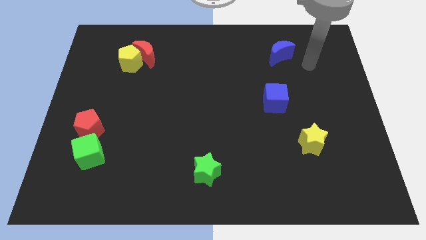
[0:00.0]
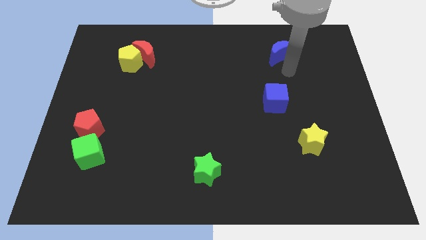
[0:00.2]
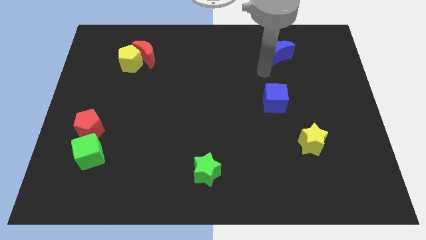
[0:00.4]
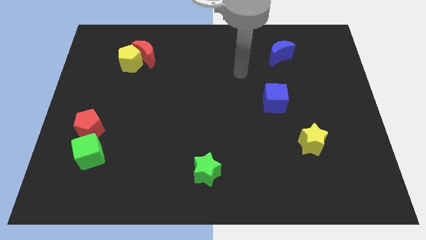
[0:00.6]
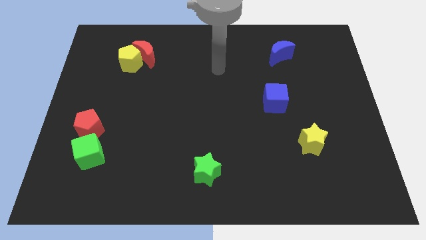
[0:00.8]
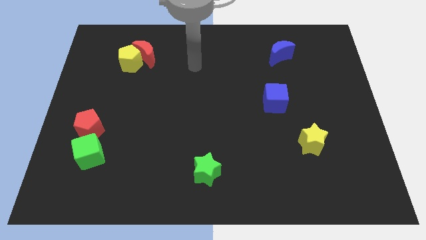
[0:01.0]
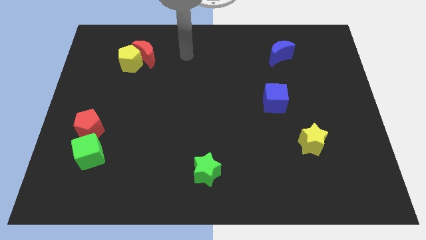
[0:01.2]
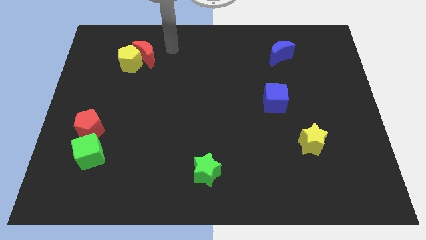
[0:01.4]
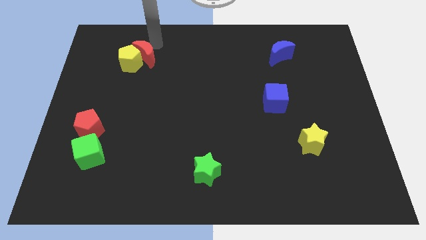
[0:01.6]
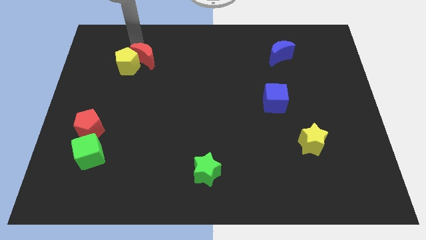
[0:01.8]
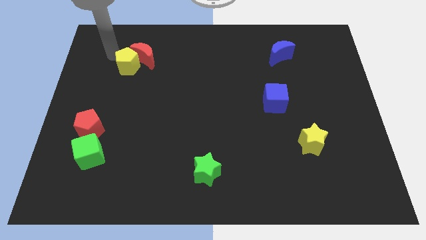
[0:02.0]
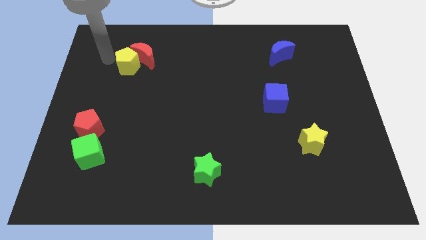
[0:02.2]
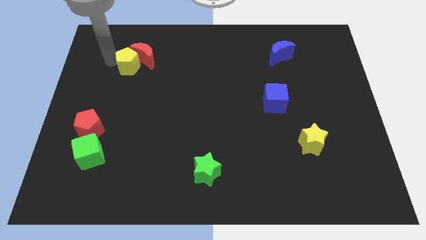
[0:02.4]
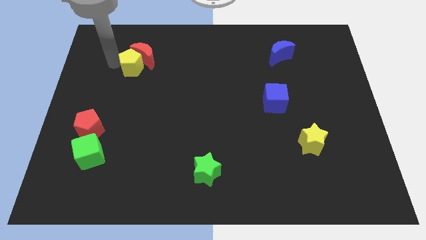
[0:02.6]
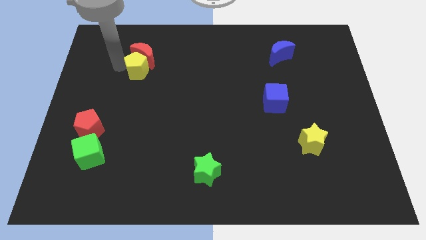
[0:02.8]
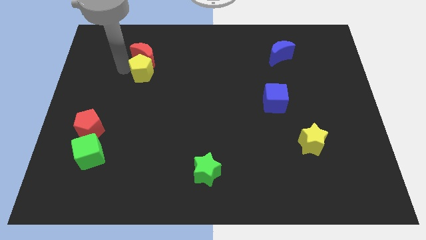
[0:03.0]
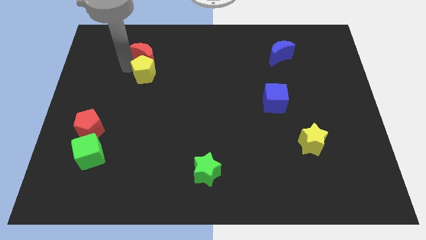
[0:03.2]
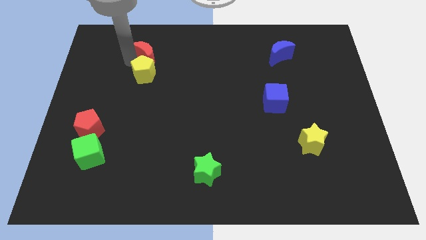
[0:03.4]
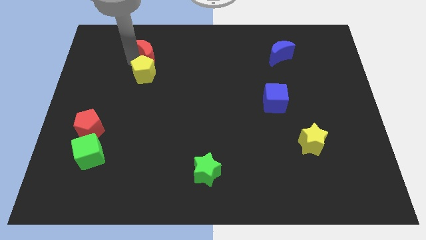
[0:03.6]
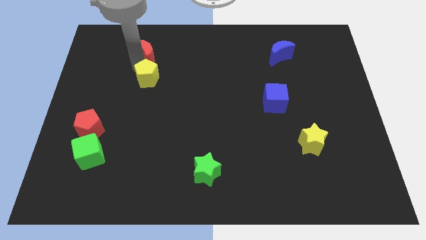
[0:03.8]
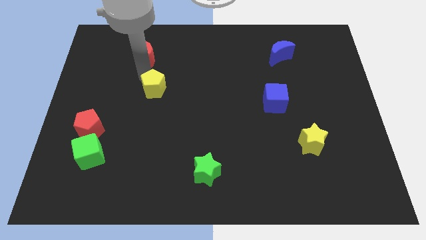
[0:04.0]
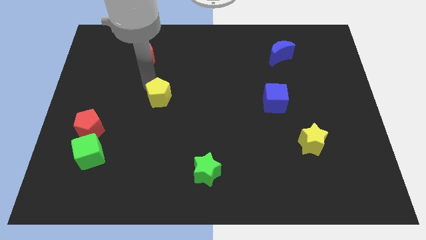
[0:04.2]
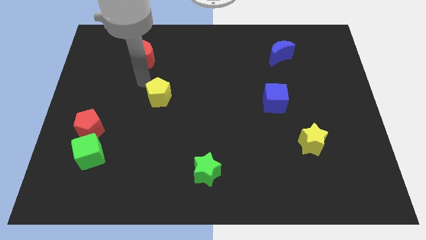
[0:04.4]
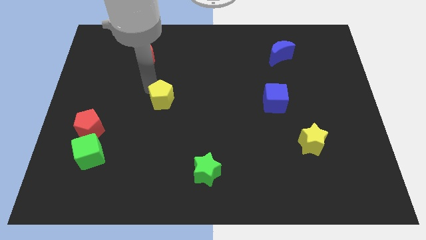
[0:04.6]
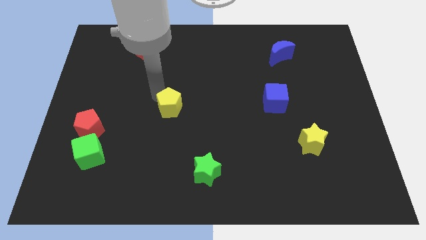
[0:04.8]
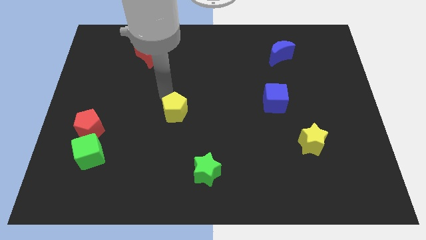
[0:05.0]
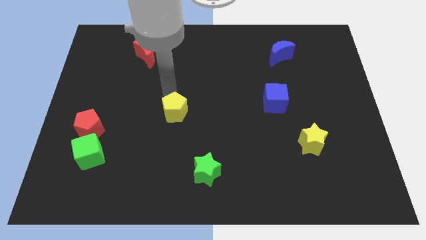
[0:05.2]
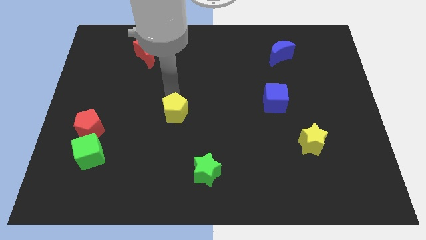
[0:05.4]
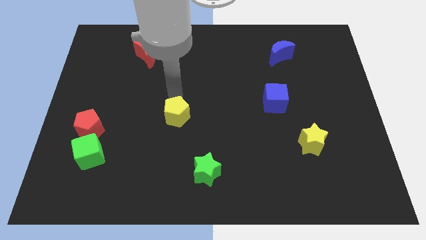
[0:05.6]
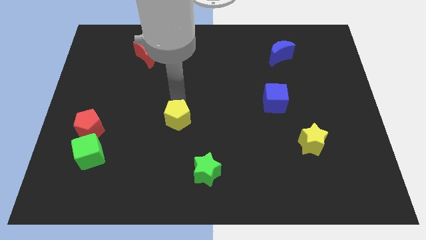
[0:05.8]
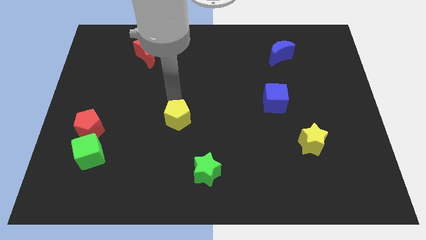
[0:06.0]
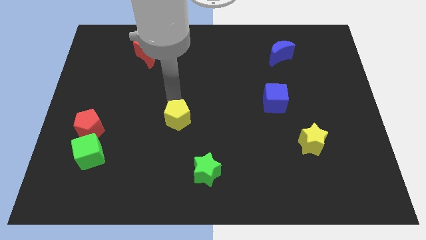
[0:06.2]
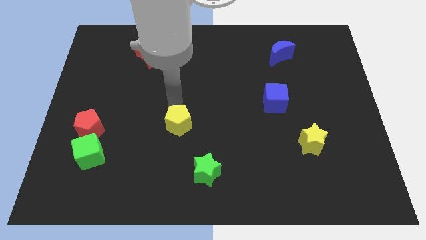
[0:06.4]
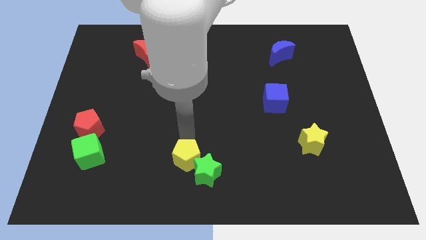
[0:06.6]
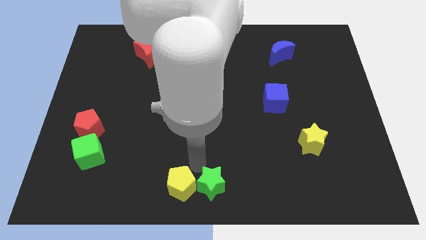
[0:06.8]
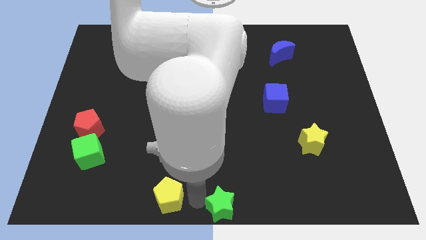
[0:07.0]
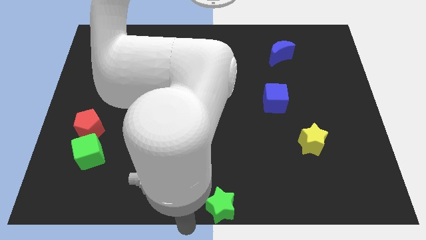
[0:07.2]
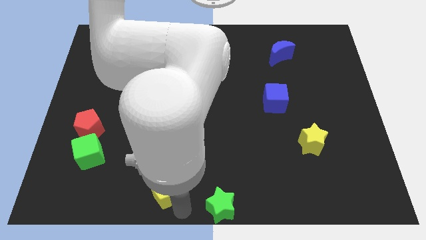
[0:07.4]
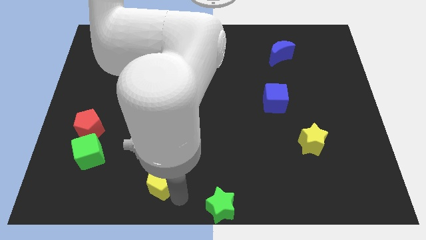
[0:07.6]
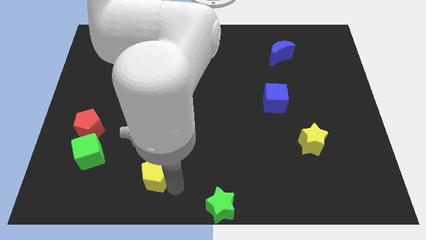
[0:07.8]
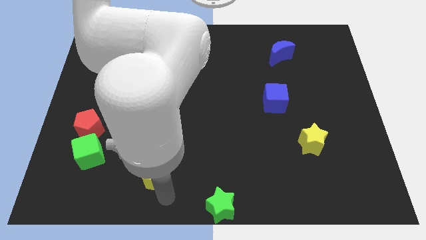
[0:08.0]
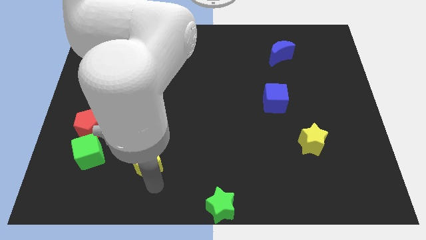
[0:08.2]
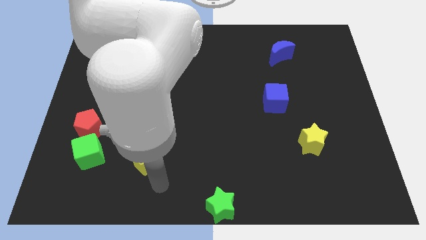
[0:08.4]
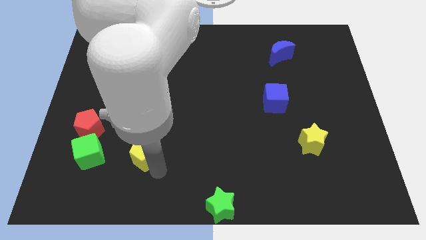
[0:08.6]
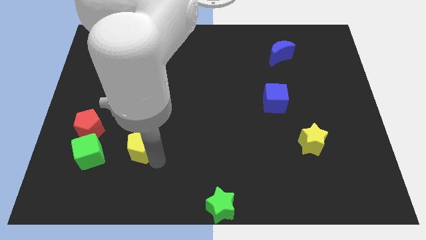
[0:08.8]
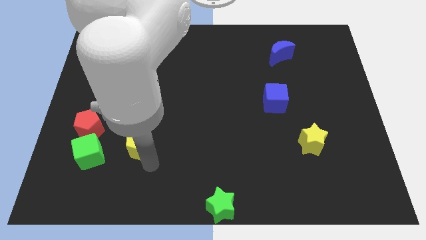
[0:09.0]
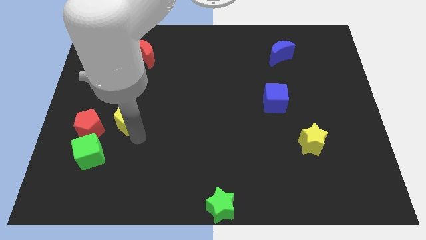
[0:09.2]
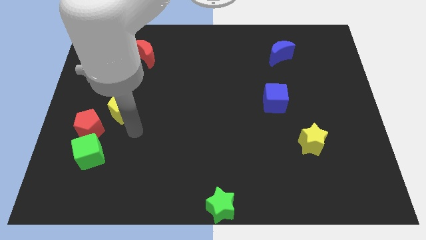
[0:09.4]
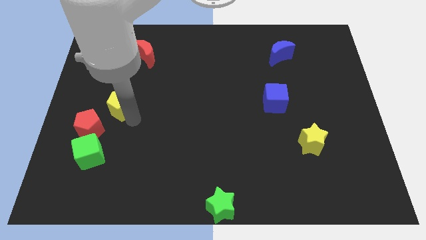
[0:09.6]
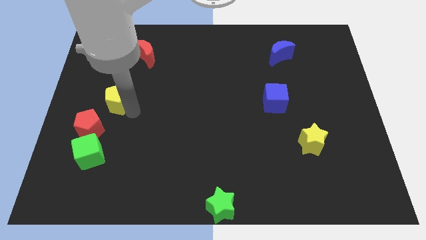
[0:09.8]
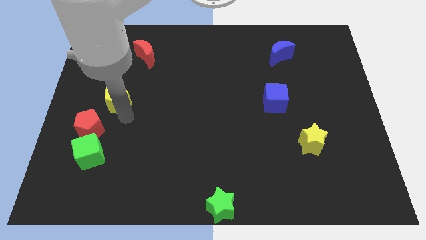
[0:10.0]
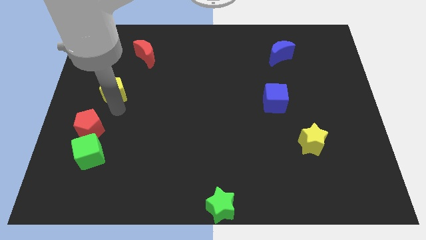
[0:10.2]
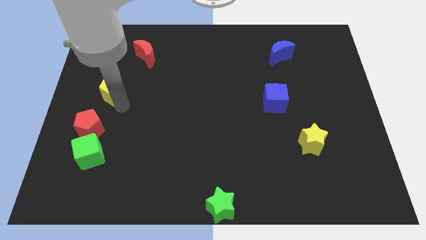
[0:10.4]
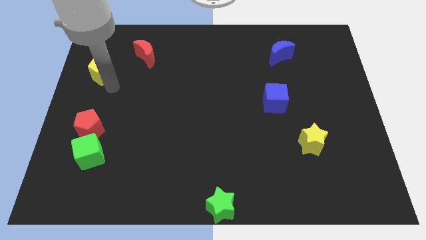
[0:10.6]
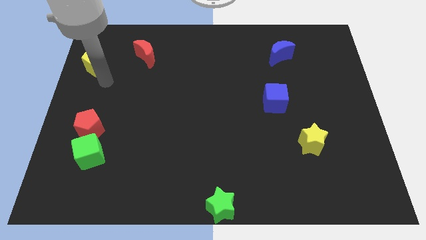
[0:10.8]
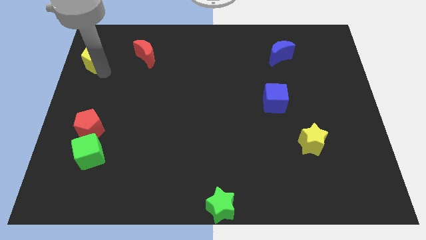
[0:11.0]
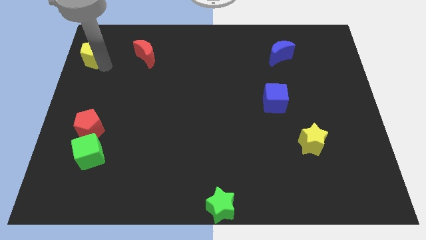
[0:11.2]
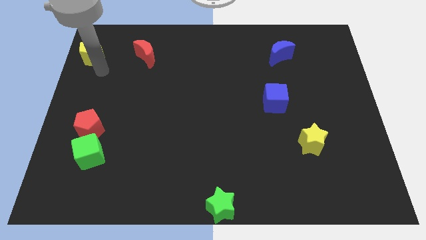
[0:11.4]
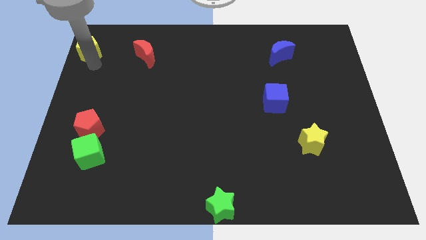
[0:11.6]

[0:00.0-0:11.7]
push the yellow pentagon to the top left
